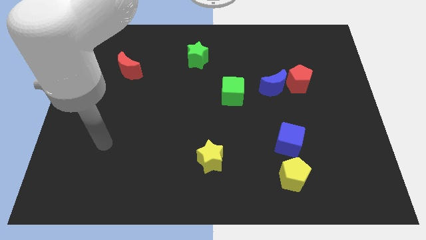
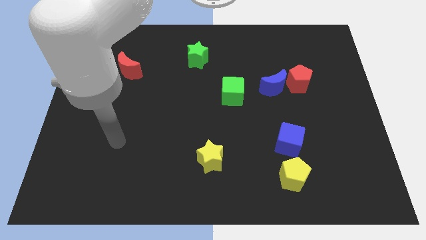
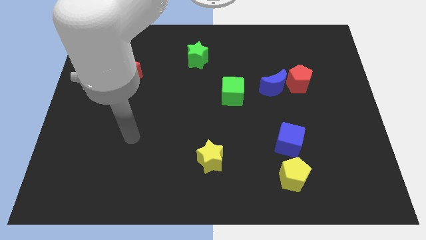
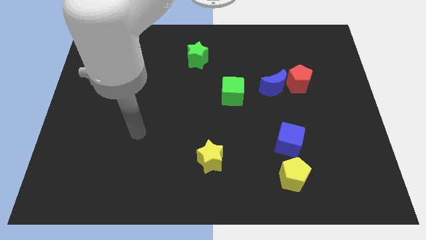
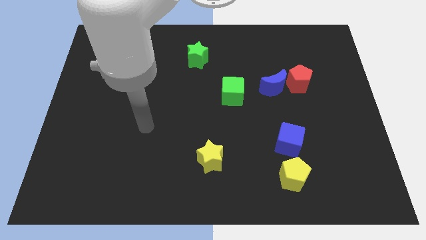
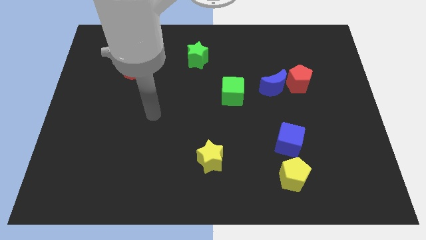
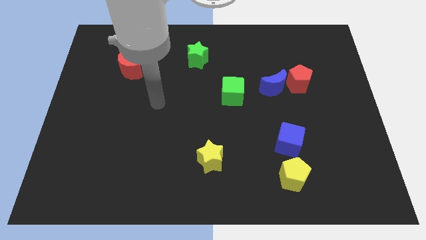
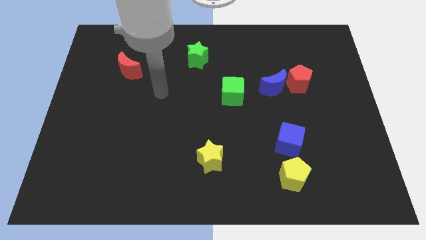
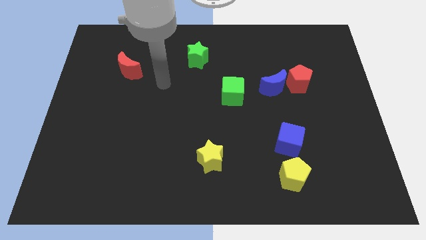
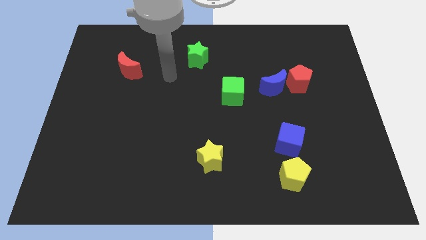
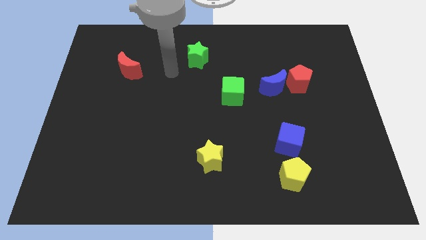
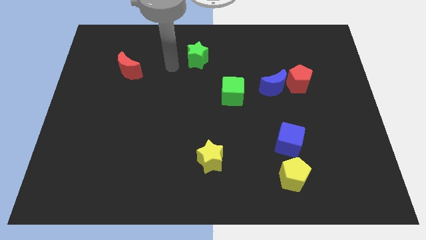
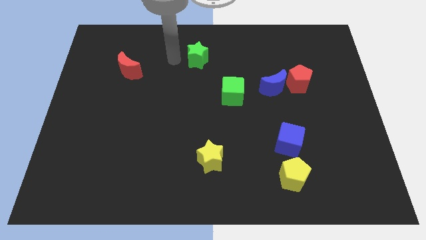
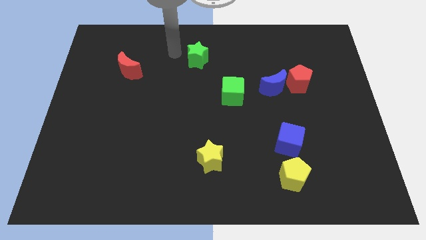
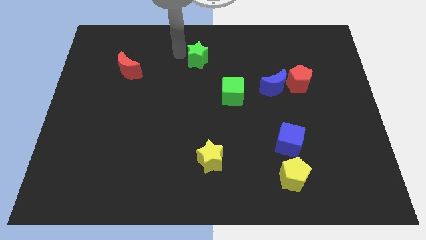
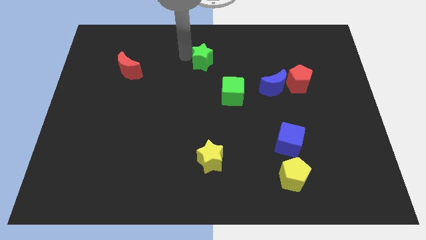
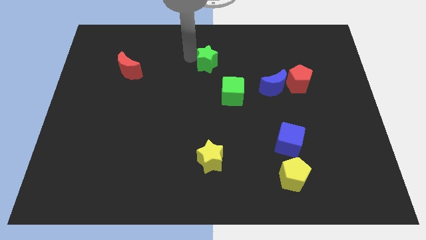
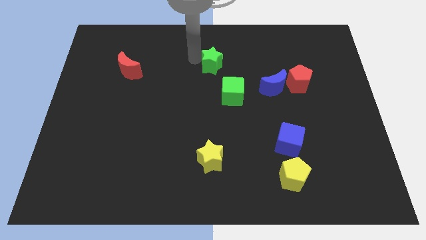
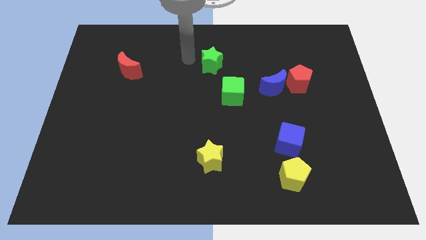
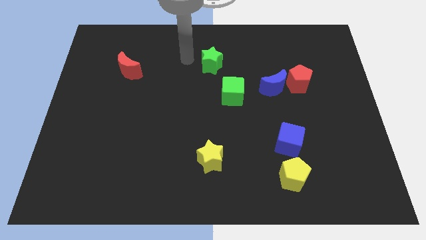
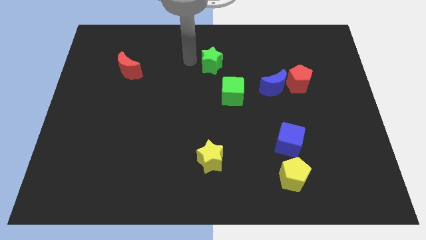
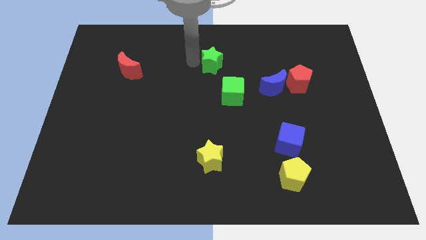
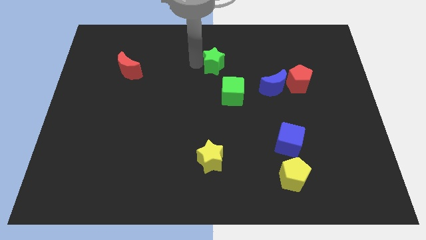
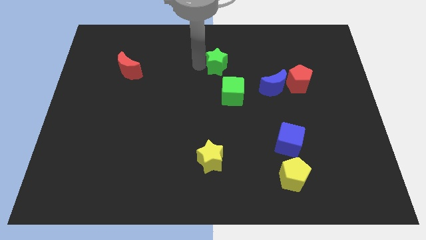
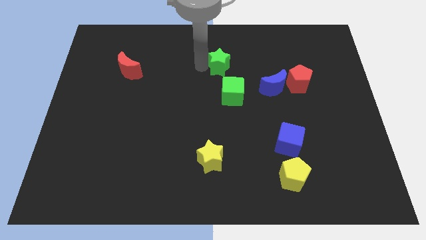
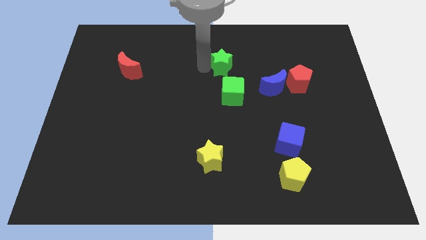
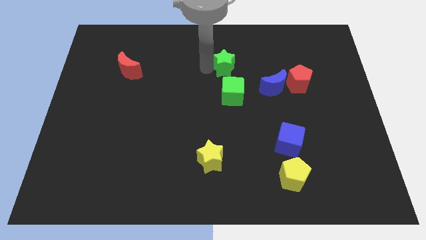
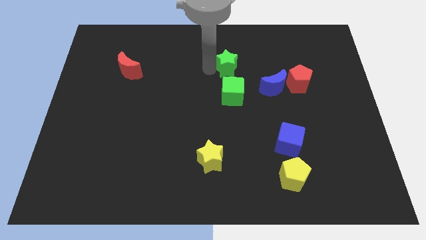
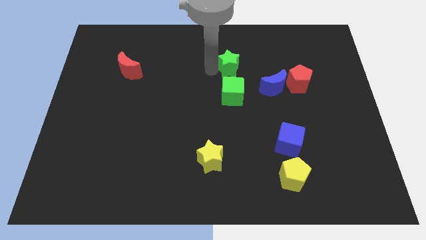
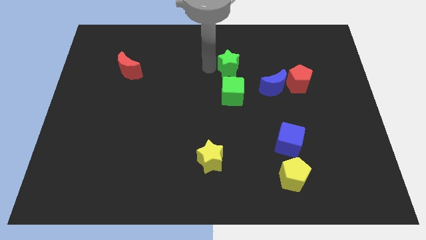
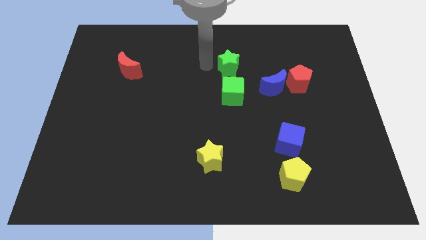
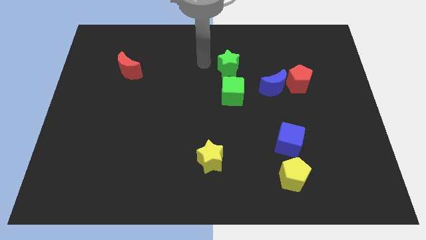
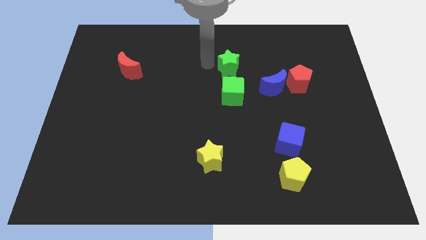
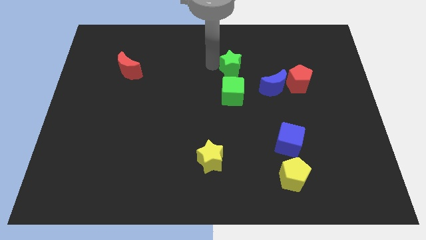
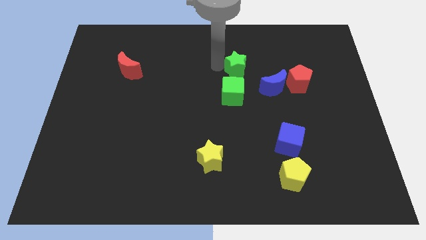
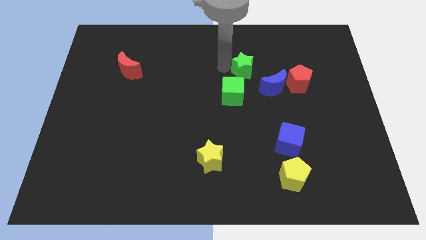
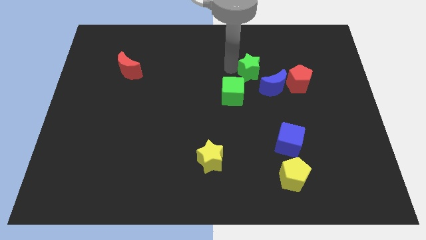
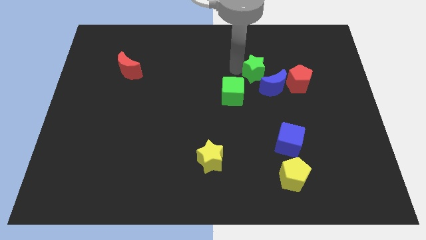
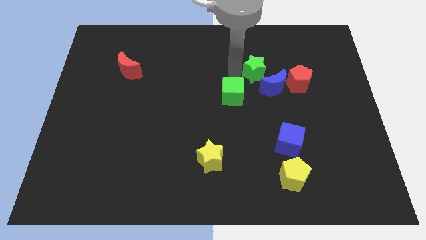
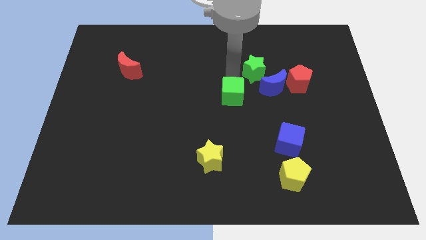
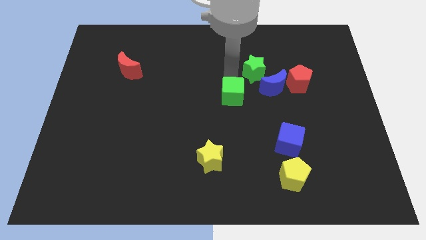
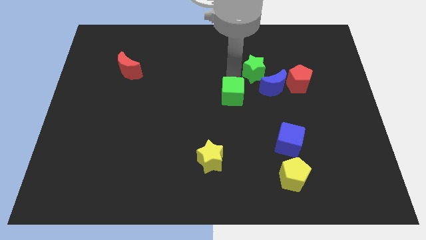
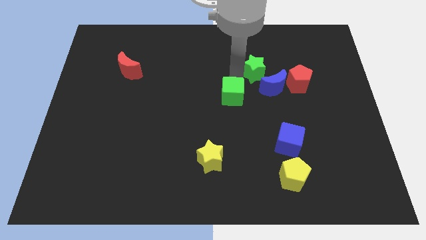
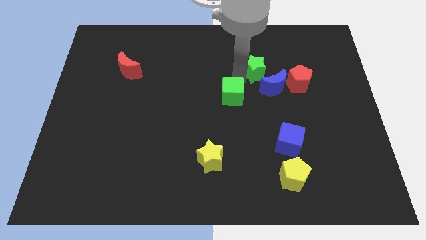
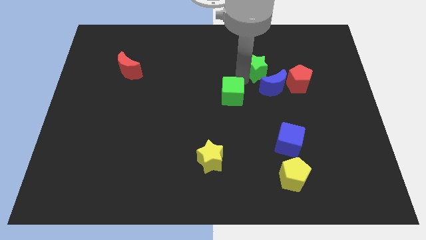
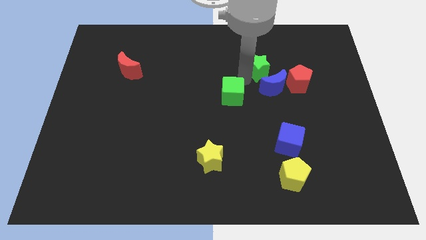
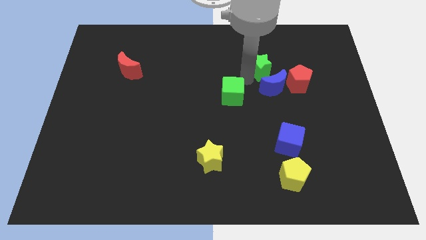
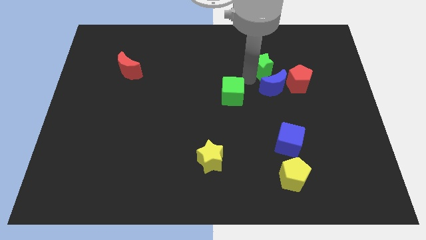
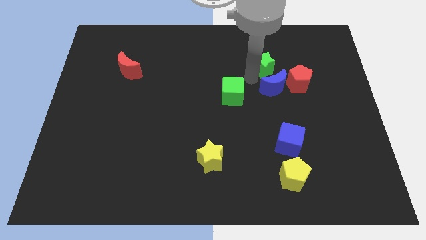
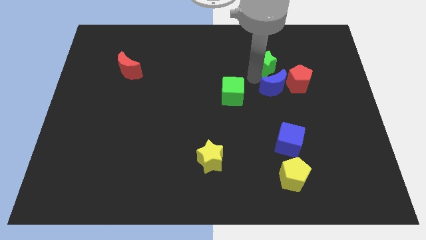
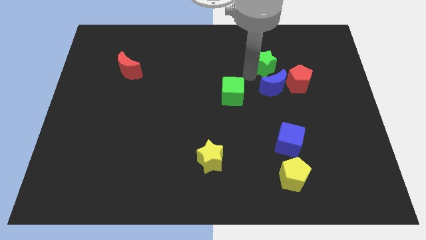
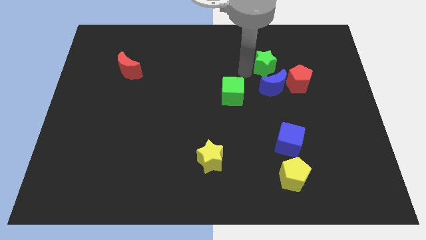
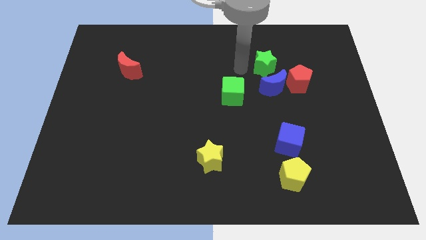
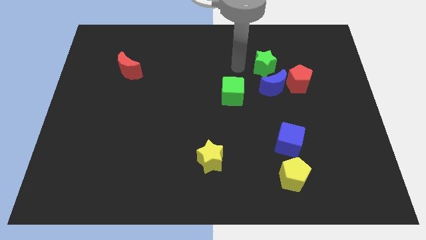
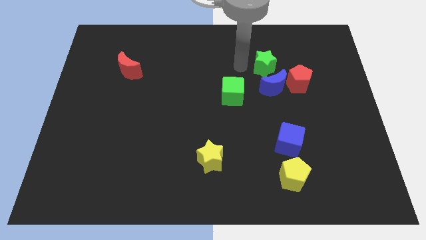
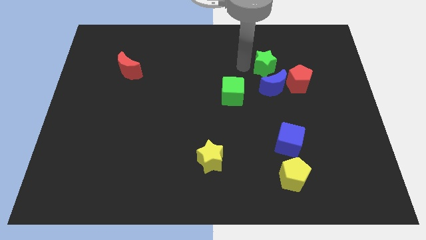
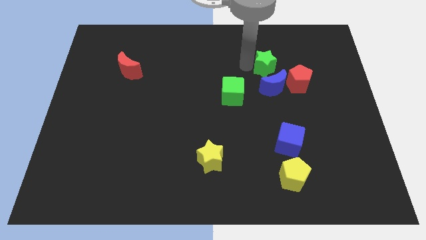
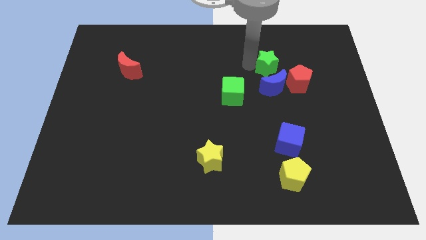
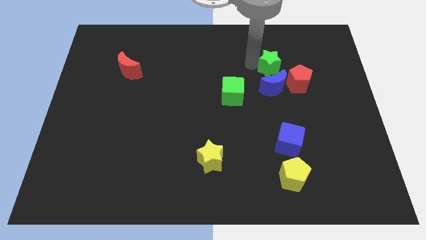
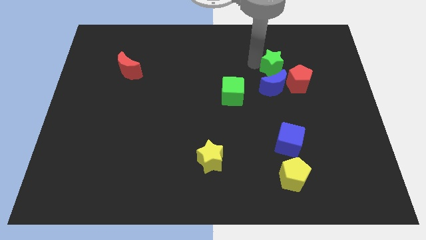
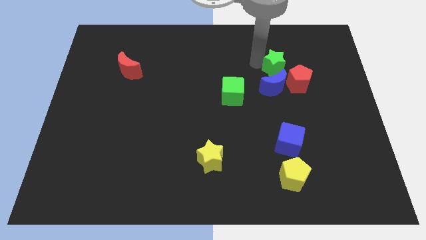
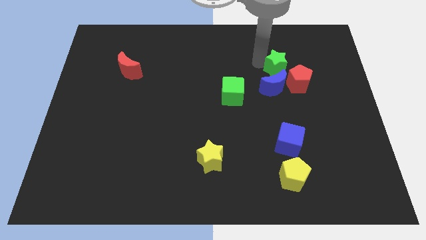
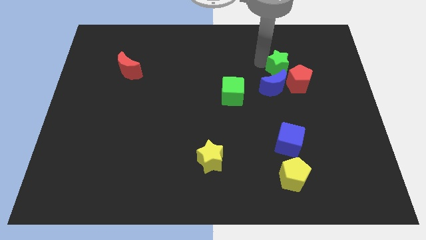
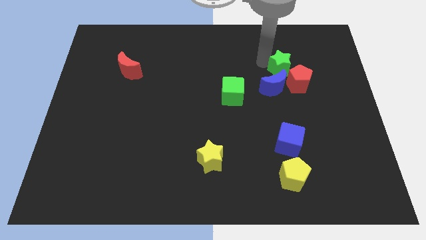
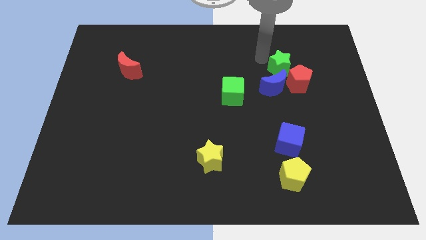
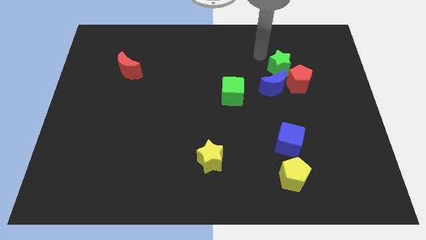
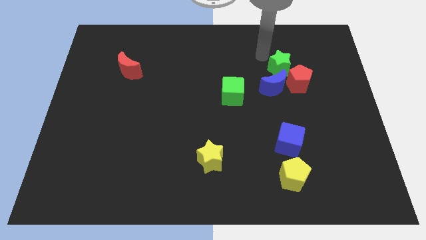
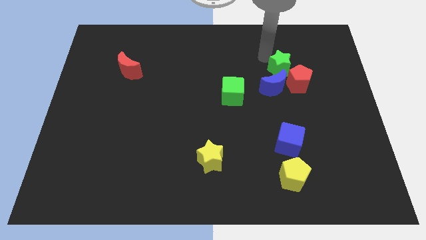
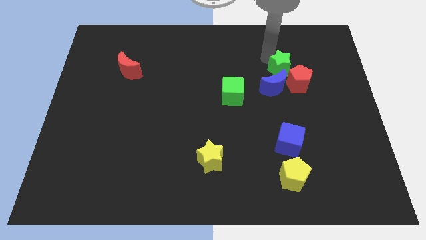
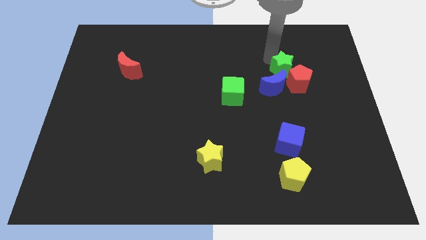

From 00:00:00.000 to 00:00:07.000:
put the green star towards the red pentagon
